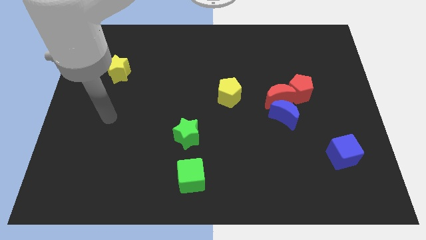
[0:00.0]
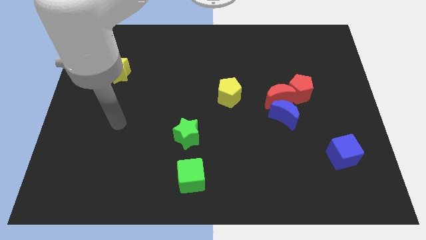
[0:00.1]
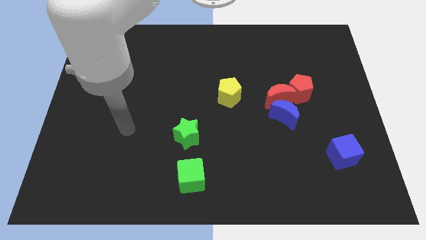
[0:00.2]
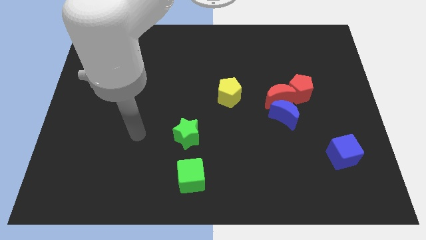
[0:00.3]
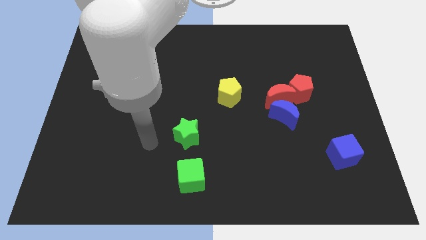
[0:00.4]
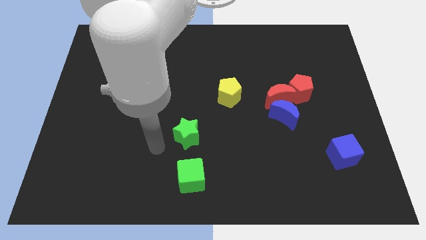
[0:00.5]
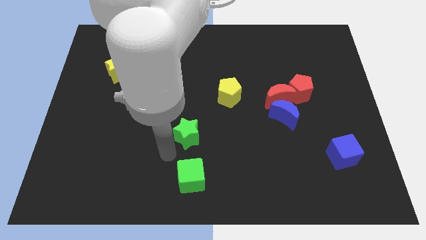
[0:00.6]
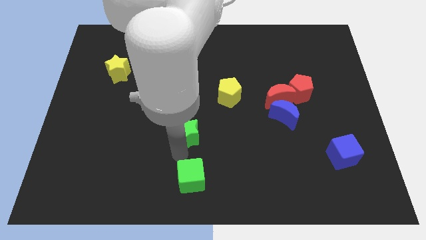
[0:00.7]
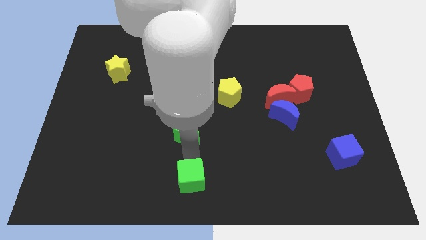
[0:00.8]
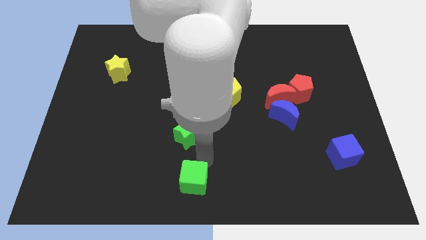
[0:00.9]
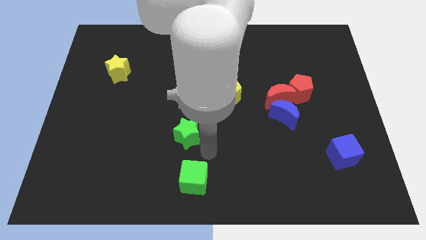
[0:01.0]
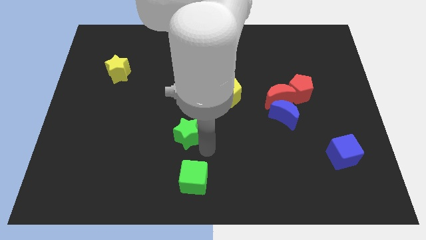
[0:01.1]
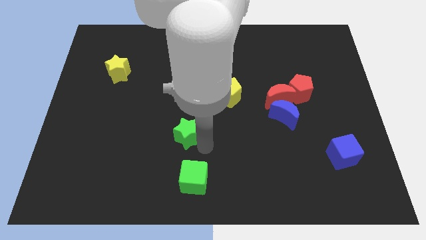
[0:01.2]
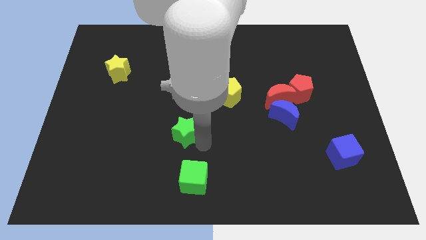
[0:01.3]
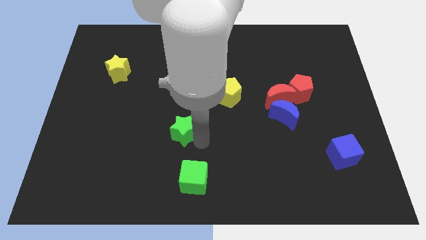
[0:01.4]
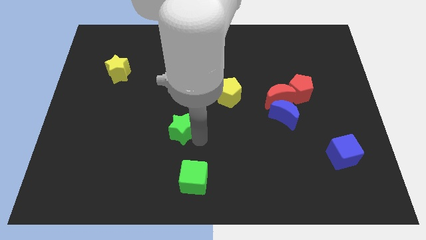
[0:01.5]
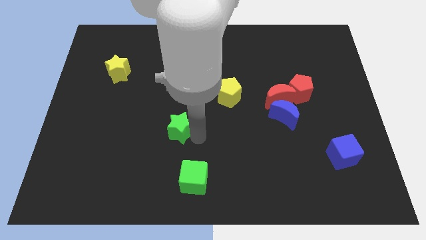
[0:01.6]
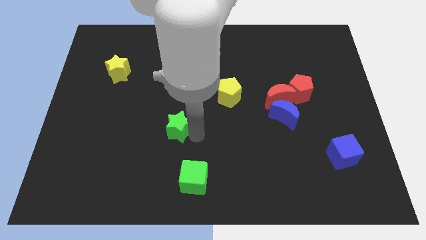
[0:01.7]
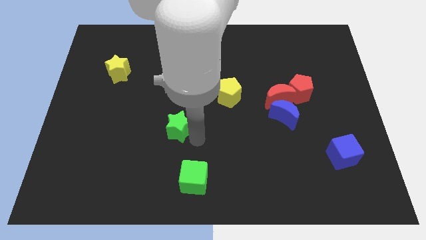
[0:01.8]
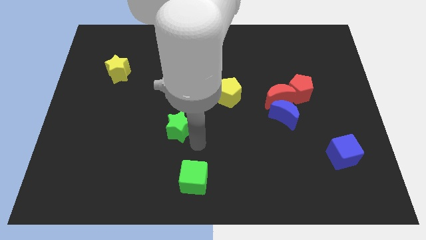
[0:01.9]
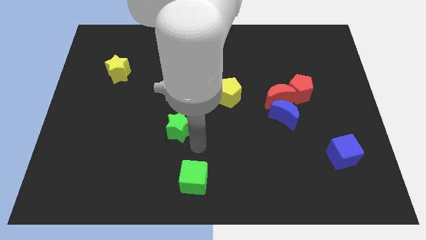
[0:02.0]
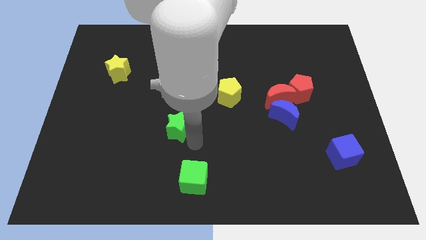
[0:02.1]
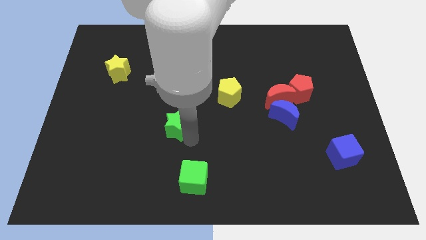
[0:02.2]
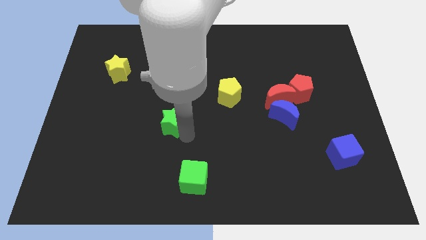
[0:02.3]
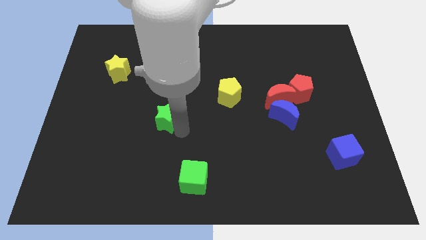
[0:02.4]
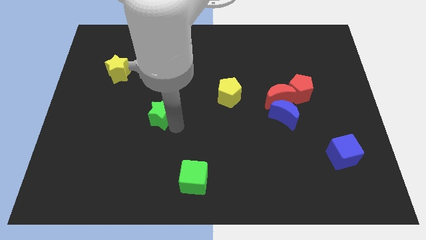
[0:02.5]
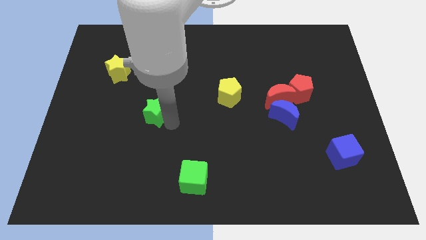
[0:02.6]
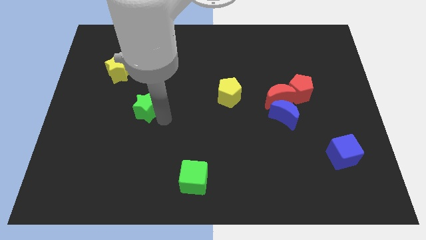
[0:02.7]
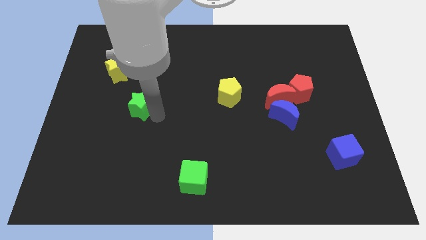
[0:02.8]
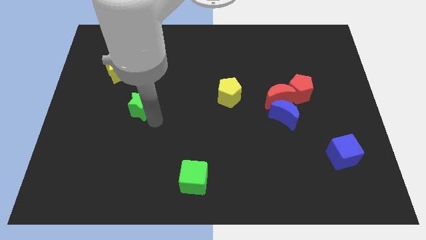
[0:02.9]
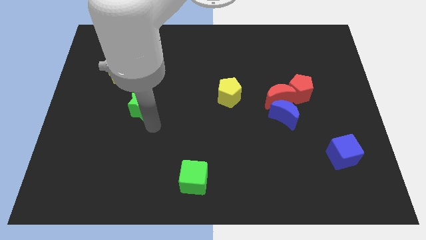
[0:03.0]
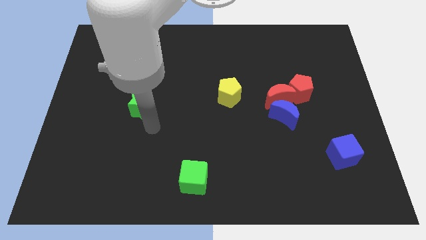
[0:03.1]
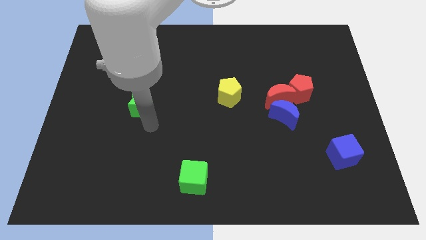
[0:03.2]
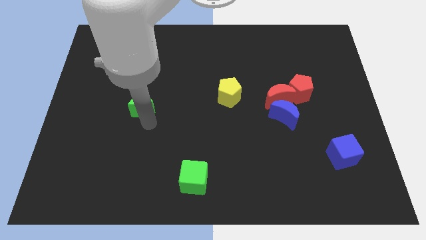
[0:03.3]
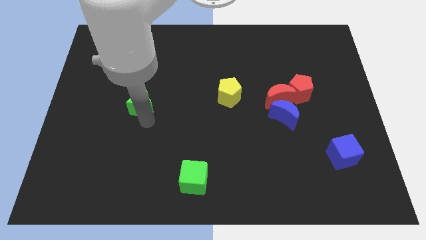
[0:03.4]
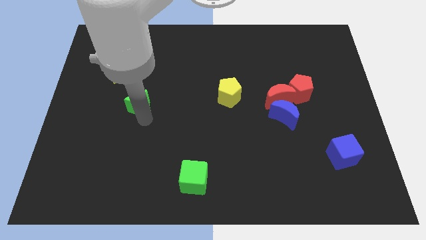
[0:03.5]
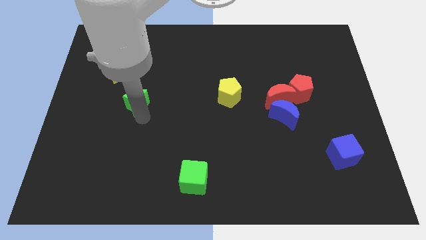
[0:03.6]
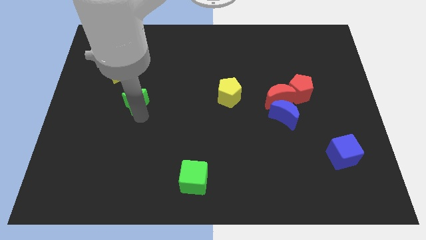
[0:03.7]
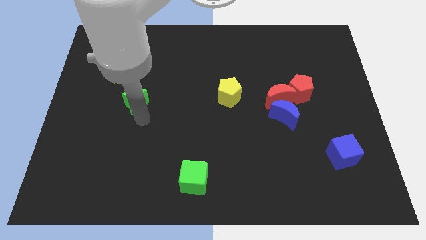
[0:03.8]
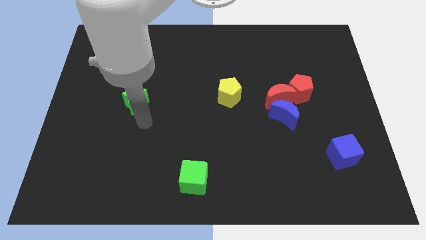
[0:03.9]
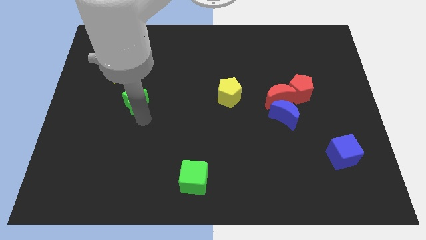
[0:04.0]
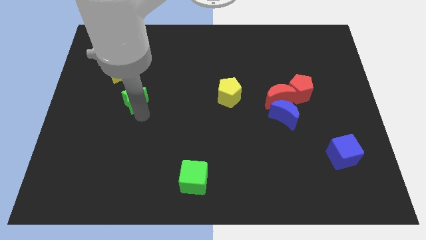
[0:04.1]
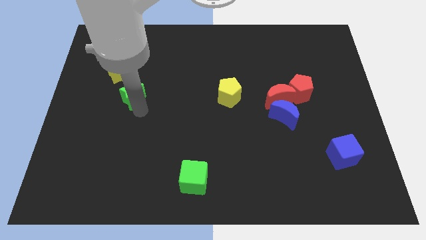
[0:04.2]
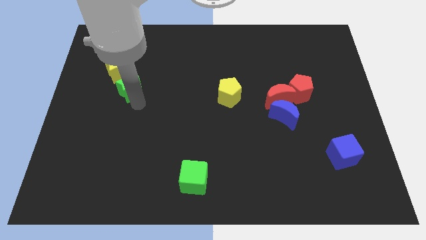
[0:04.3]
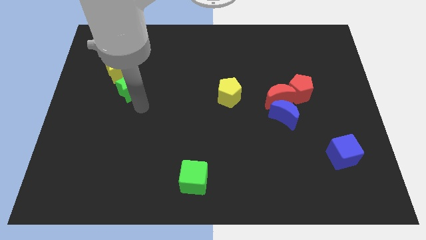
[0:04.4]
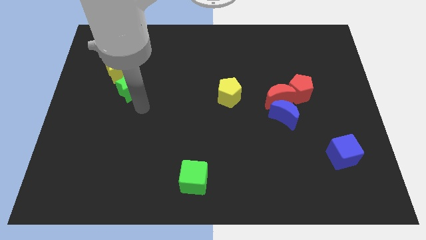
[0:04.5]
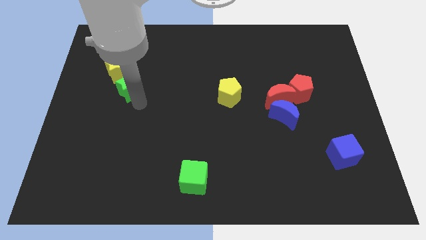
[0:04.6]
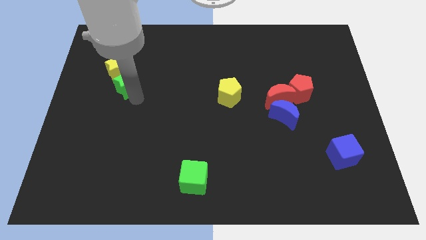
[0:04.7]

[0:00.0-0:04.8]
slide the green star towards the yellow star

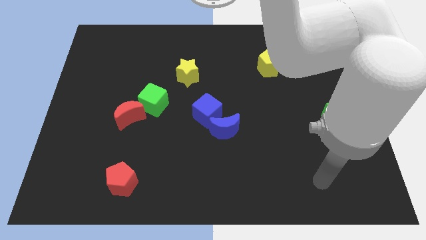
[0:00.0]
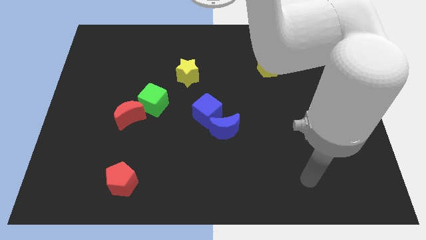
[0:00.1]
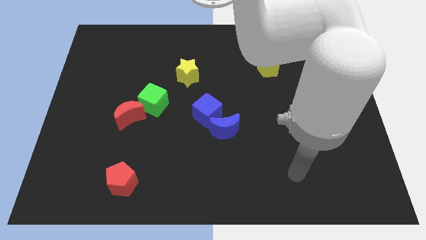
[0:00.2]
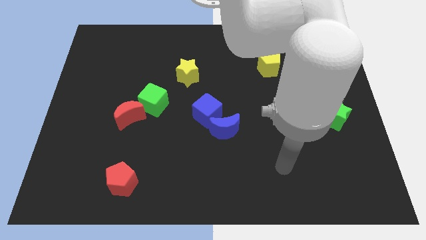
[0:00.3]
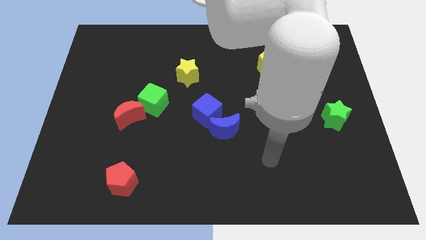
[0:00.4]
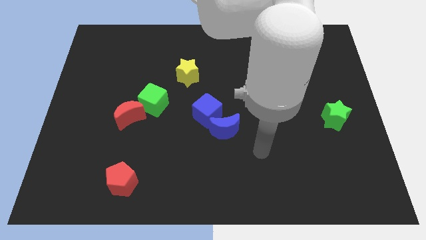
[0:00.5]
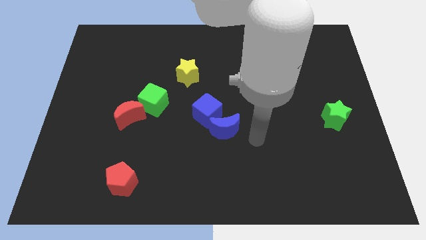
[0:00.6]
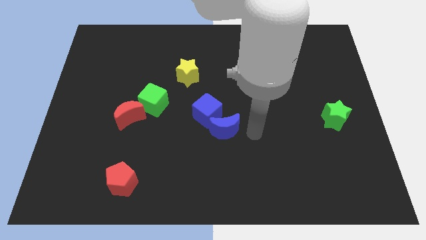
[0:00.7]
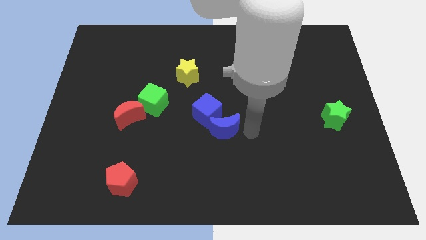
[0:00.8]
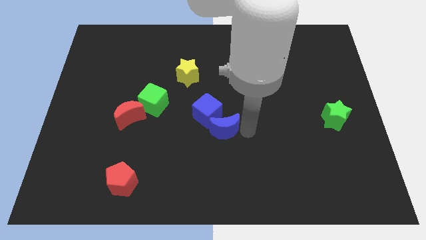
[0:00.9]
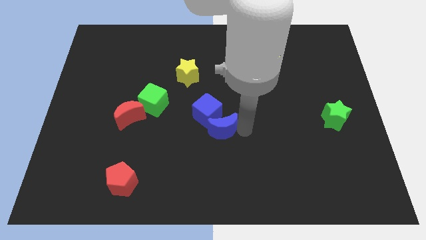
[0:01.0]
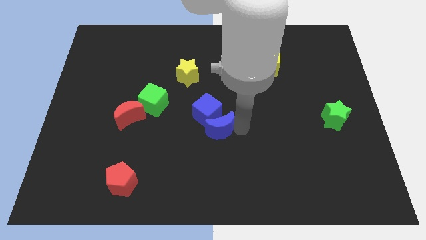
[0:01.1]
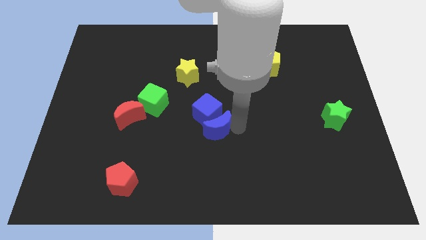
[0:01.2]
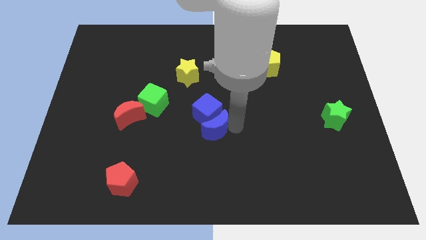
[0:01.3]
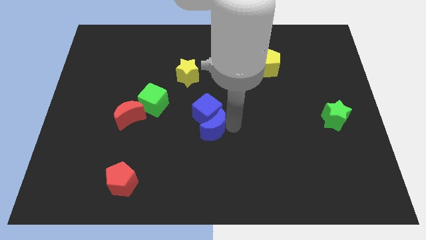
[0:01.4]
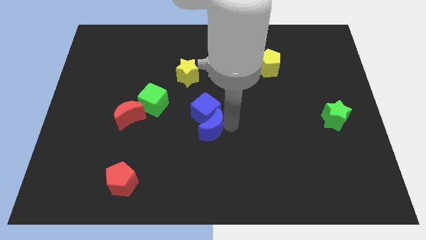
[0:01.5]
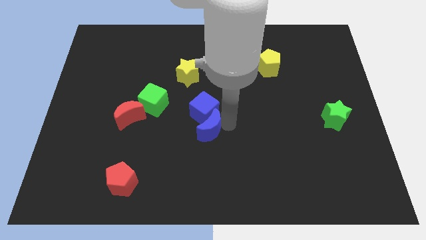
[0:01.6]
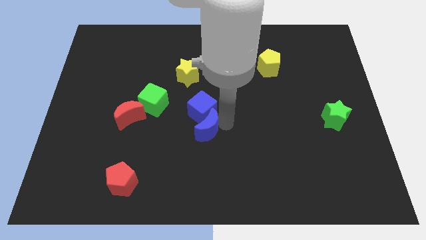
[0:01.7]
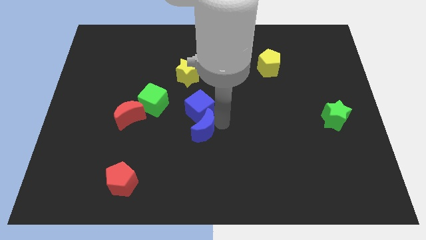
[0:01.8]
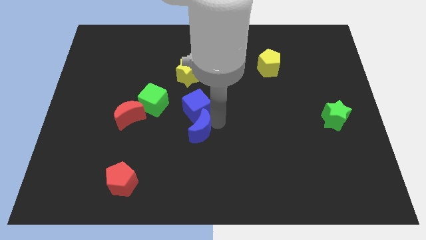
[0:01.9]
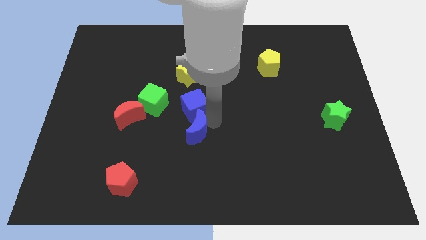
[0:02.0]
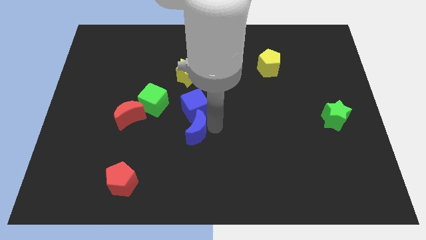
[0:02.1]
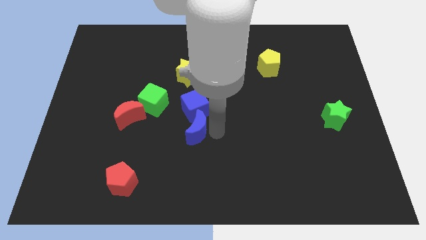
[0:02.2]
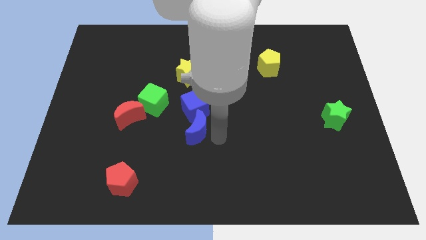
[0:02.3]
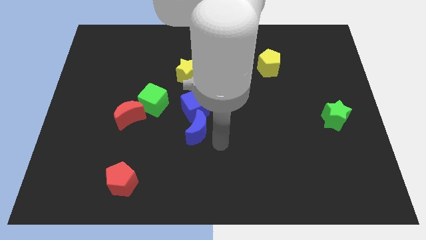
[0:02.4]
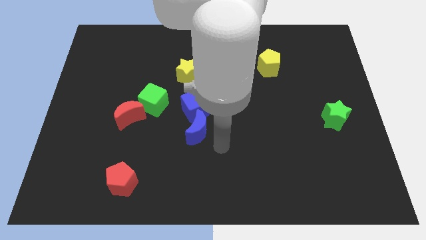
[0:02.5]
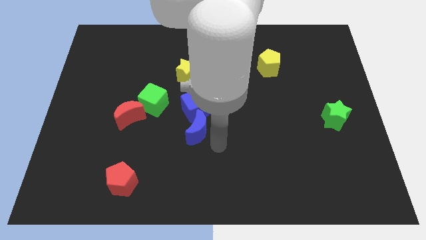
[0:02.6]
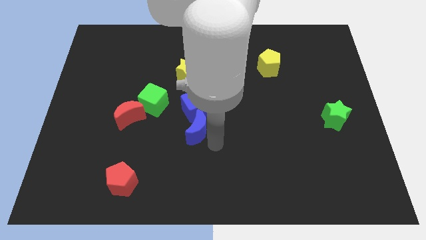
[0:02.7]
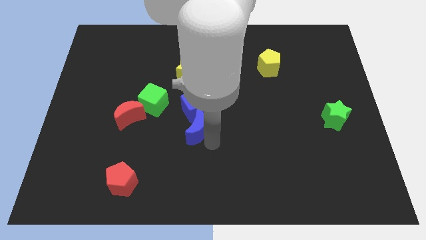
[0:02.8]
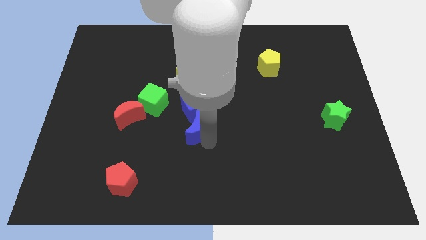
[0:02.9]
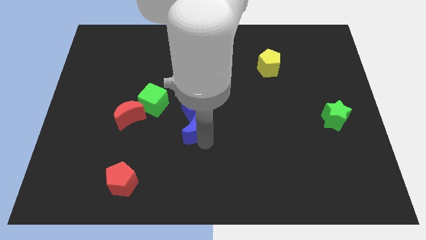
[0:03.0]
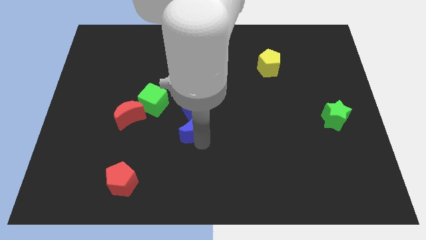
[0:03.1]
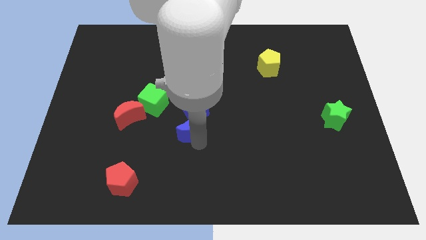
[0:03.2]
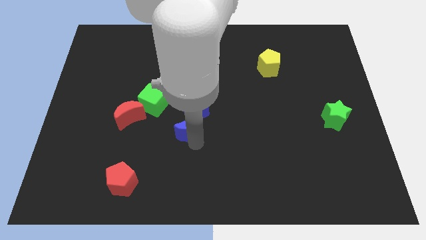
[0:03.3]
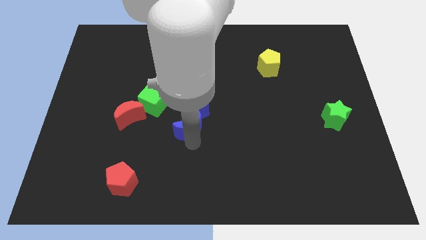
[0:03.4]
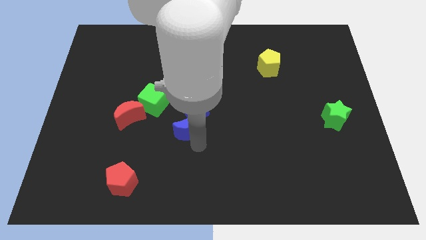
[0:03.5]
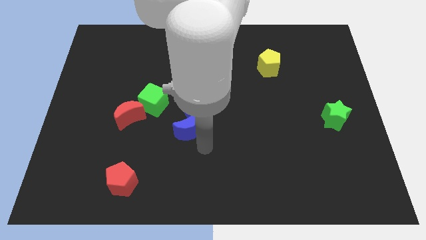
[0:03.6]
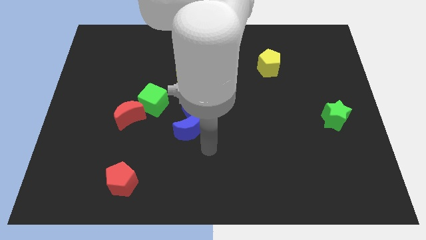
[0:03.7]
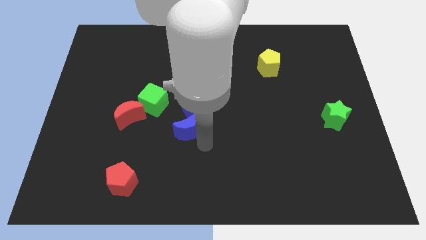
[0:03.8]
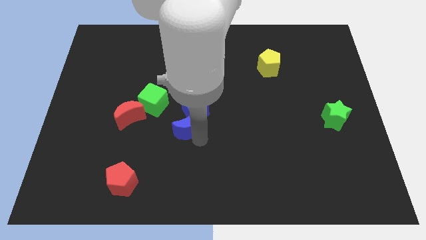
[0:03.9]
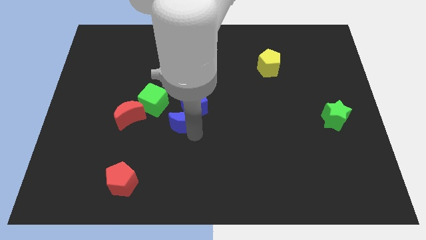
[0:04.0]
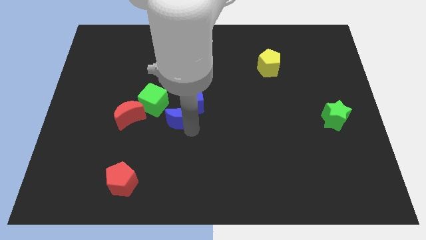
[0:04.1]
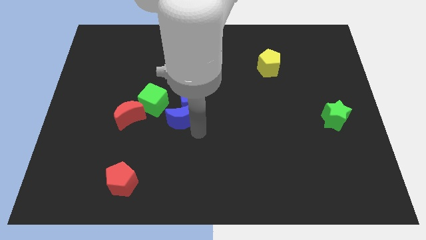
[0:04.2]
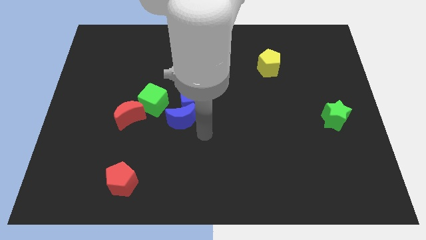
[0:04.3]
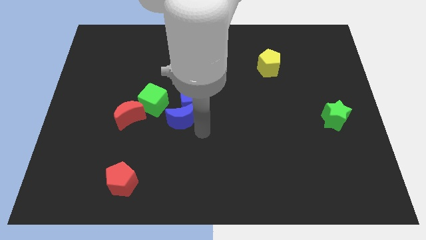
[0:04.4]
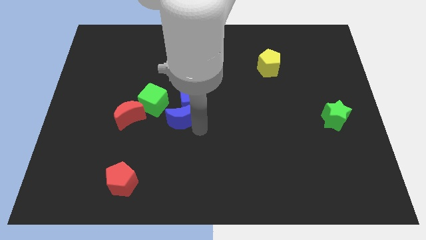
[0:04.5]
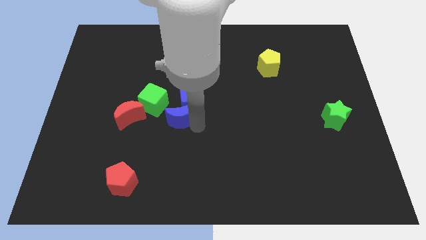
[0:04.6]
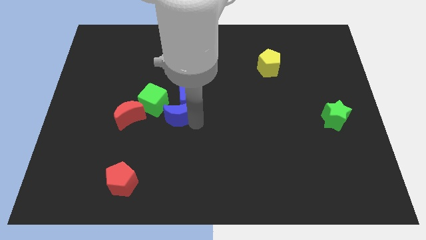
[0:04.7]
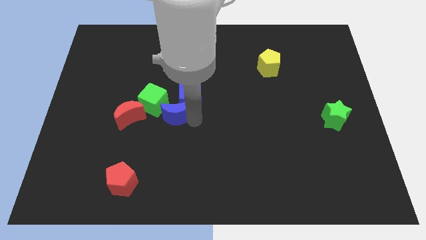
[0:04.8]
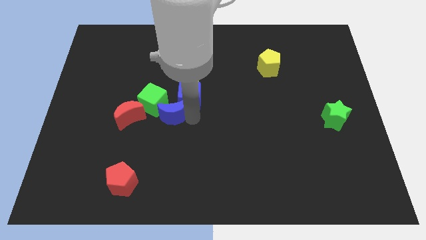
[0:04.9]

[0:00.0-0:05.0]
slide the blue moon to the green cube
